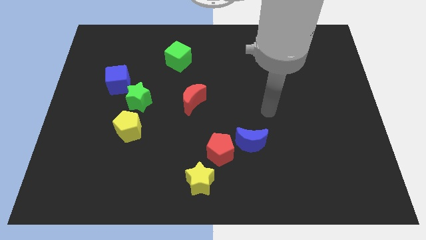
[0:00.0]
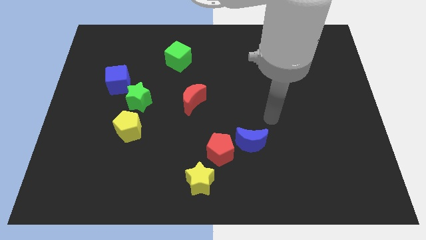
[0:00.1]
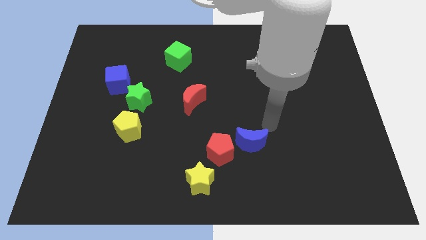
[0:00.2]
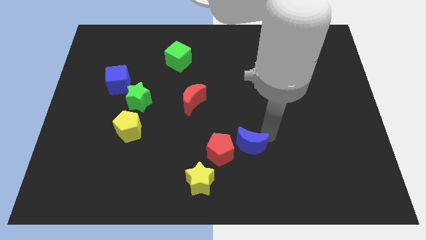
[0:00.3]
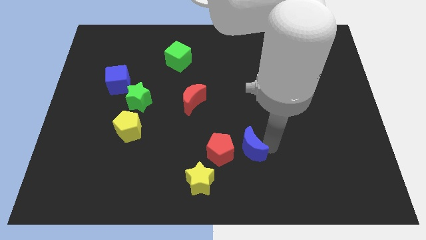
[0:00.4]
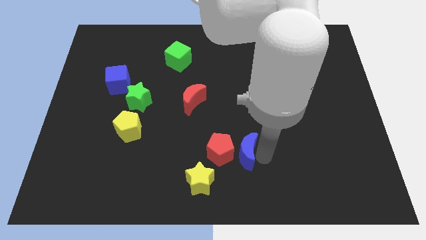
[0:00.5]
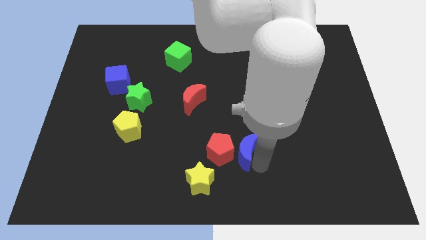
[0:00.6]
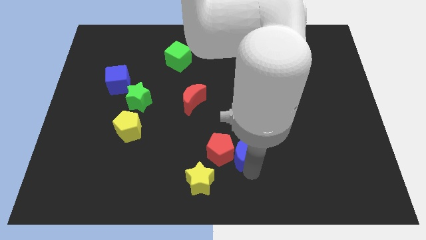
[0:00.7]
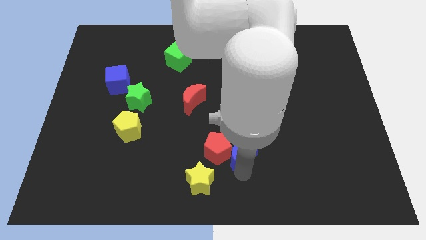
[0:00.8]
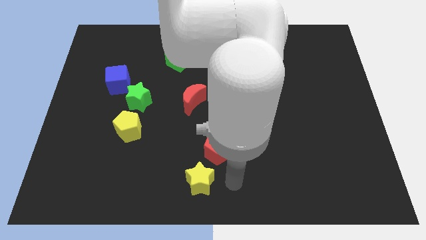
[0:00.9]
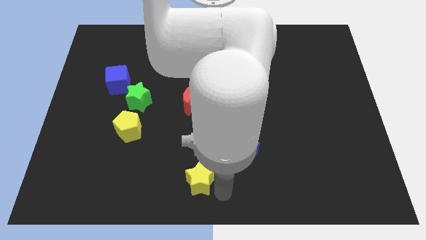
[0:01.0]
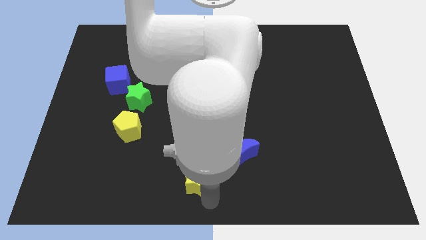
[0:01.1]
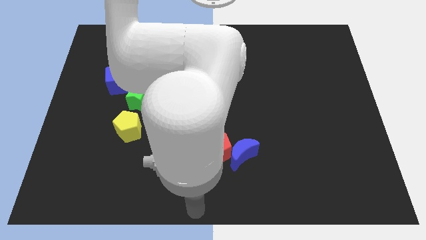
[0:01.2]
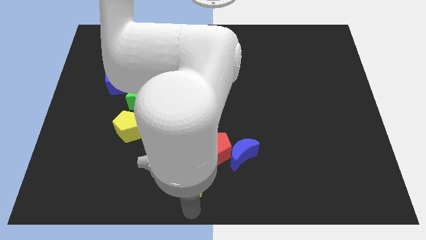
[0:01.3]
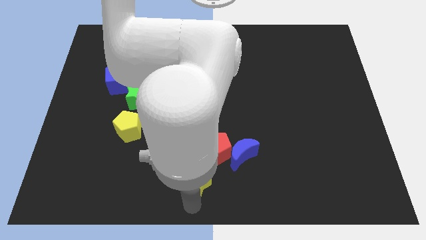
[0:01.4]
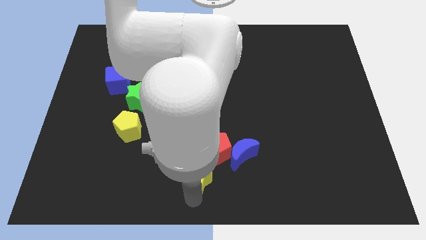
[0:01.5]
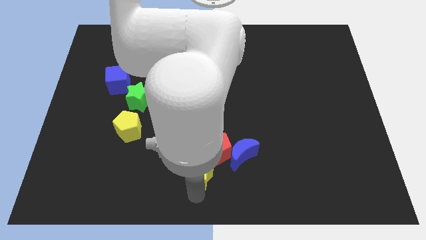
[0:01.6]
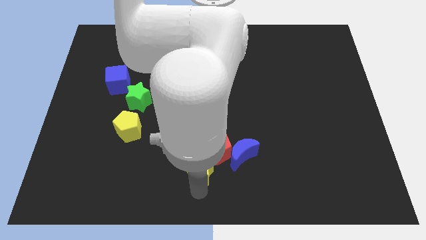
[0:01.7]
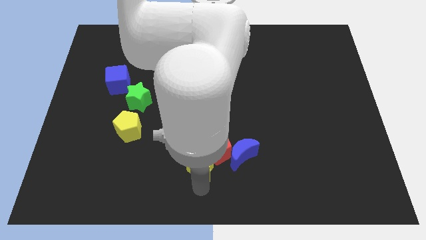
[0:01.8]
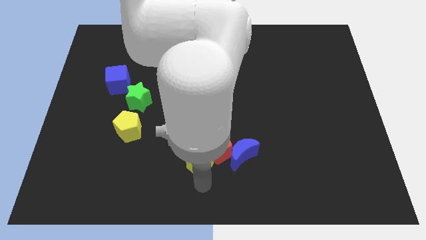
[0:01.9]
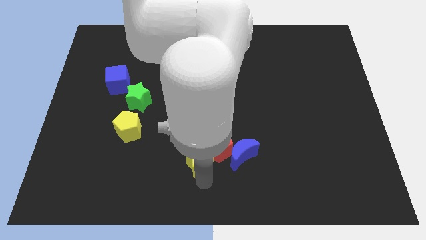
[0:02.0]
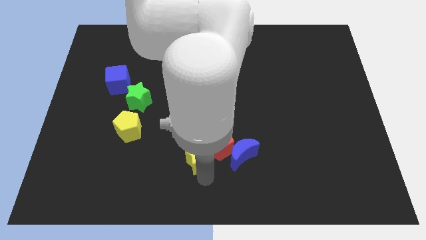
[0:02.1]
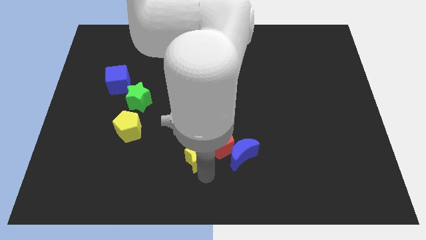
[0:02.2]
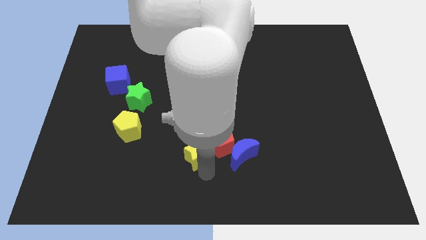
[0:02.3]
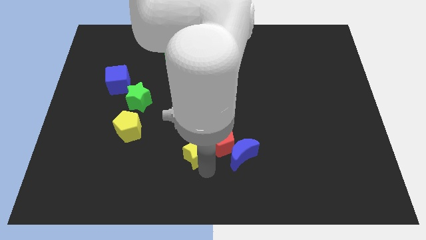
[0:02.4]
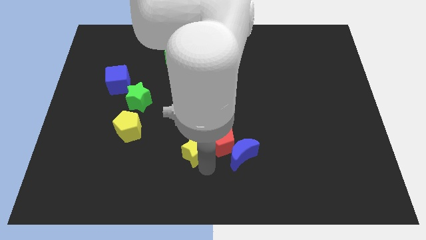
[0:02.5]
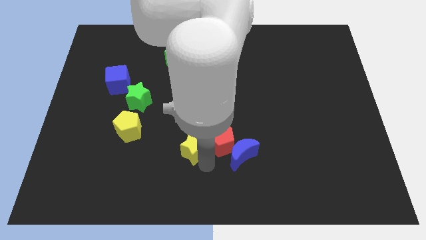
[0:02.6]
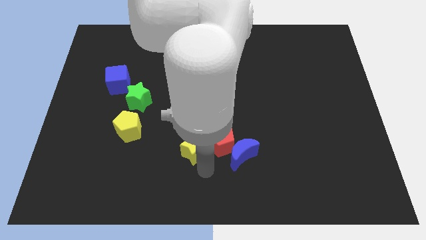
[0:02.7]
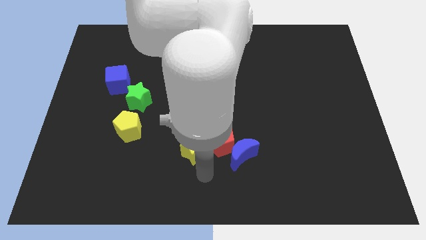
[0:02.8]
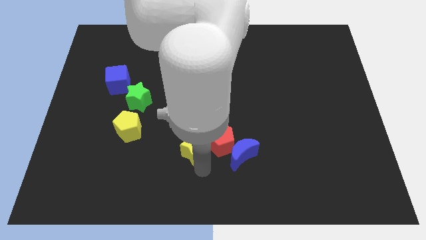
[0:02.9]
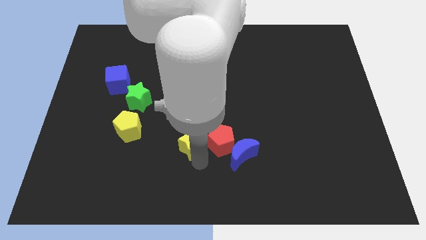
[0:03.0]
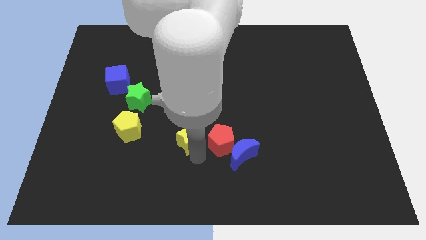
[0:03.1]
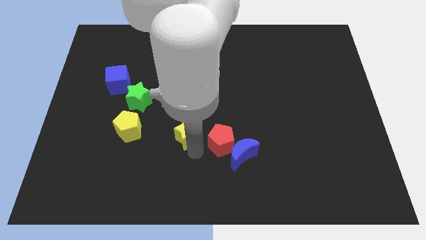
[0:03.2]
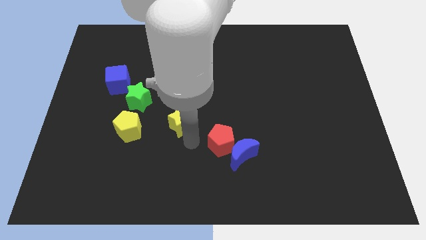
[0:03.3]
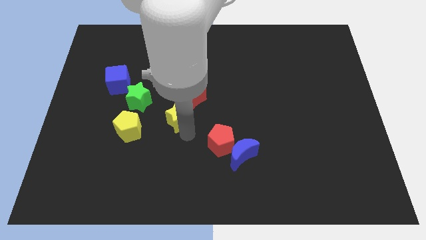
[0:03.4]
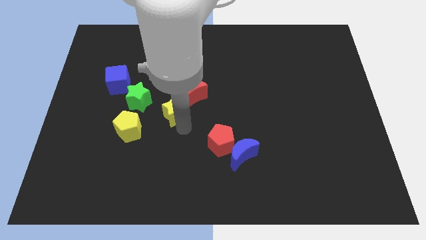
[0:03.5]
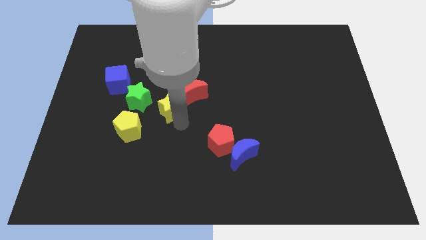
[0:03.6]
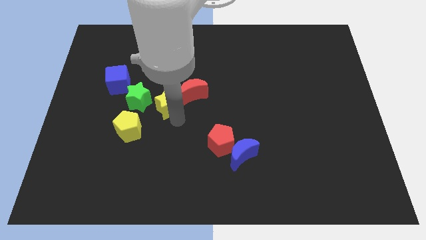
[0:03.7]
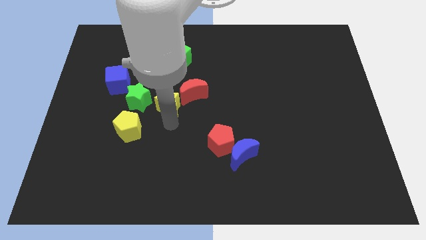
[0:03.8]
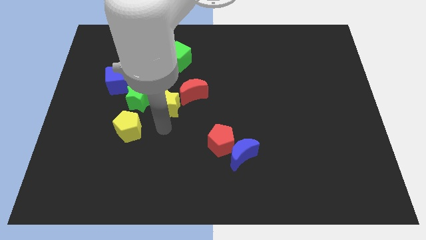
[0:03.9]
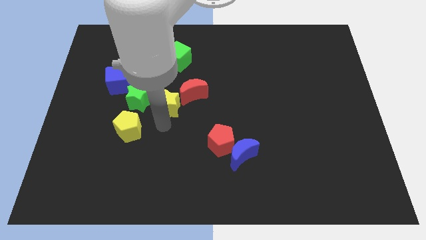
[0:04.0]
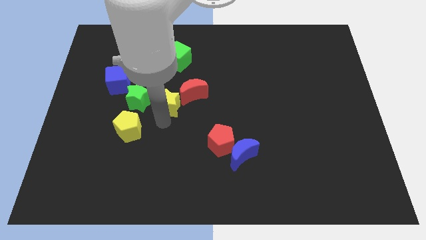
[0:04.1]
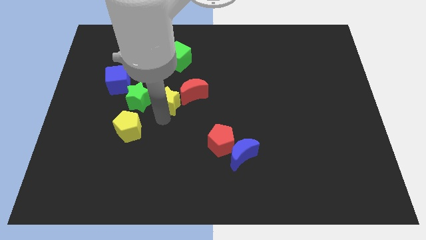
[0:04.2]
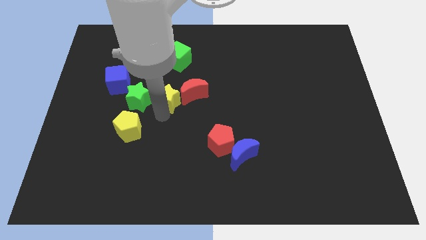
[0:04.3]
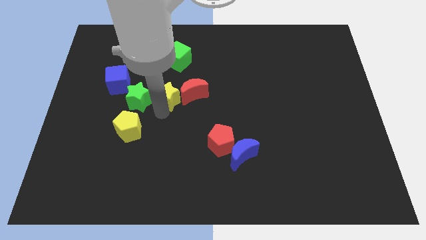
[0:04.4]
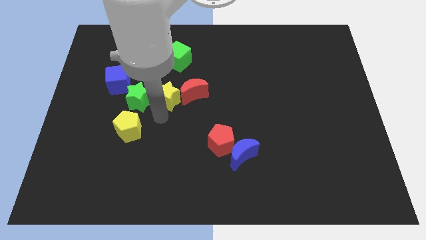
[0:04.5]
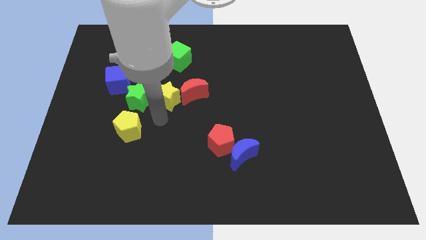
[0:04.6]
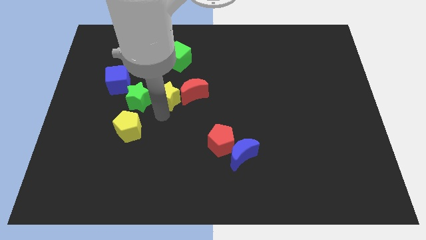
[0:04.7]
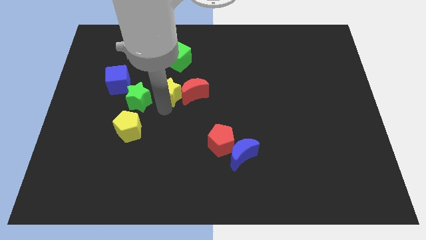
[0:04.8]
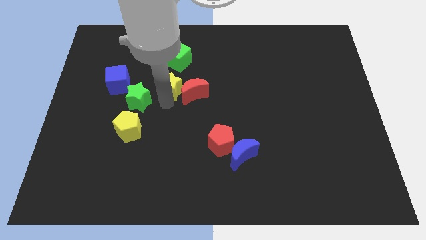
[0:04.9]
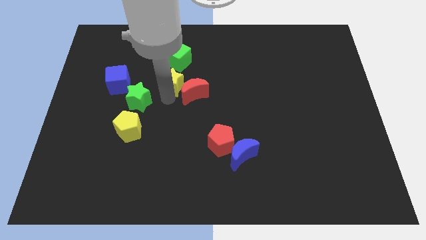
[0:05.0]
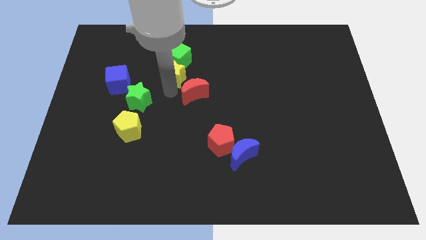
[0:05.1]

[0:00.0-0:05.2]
put the yellow star to the green cube

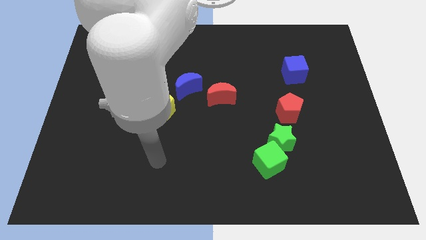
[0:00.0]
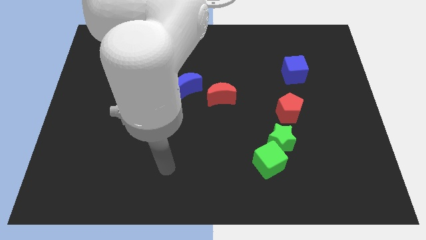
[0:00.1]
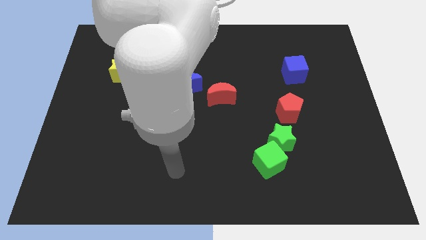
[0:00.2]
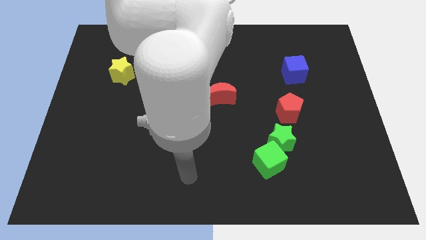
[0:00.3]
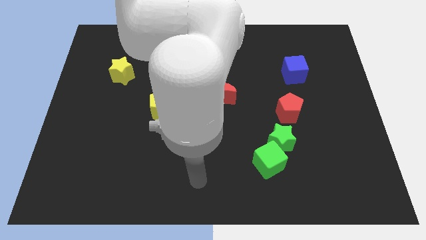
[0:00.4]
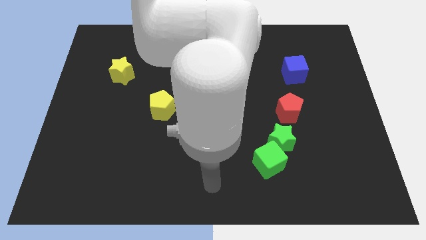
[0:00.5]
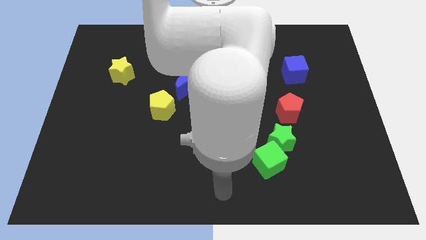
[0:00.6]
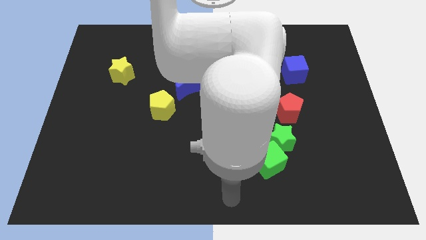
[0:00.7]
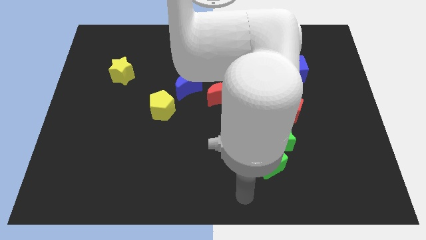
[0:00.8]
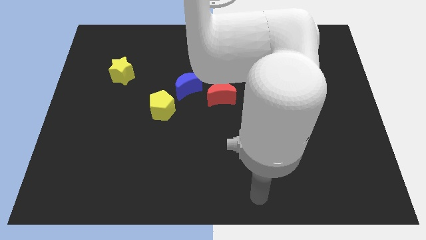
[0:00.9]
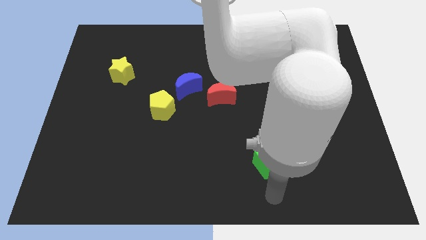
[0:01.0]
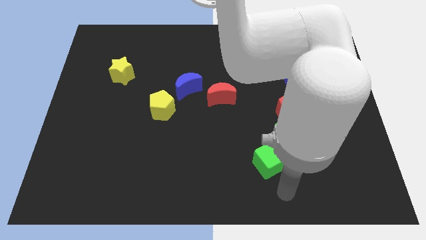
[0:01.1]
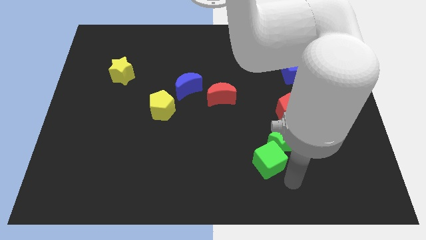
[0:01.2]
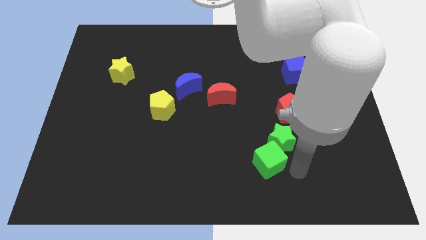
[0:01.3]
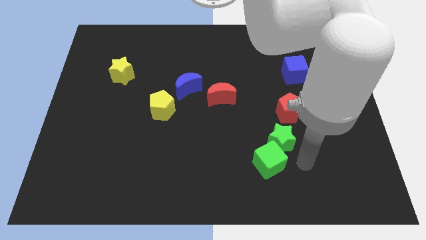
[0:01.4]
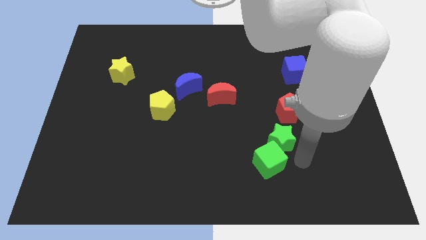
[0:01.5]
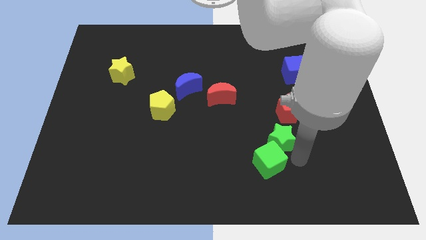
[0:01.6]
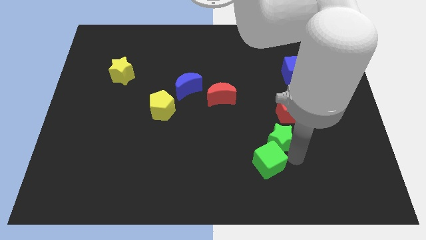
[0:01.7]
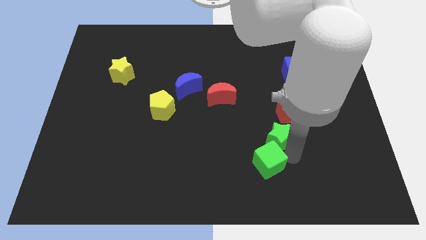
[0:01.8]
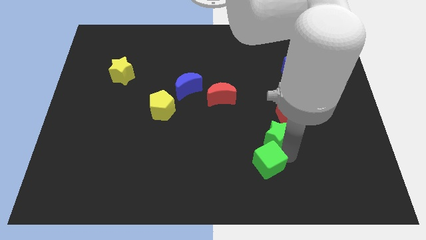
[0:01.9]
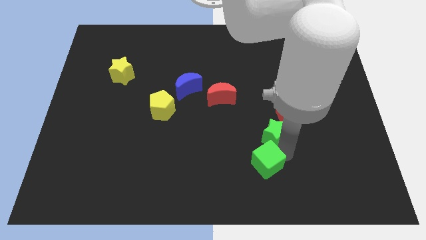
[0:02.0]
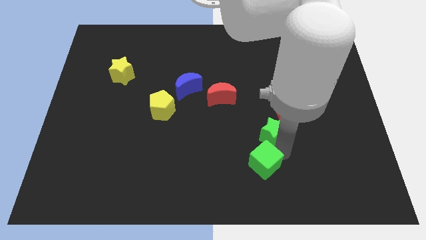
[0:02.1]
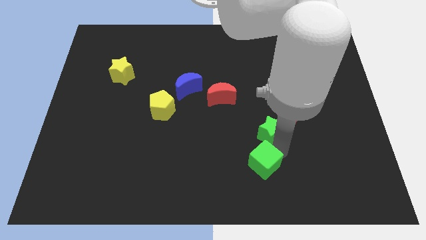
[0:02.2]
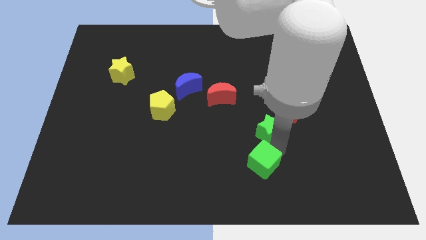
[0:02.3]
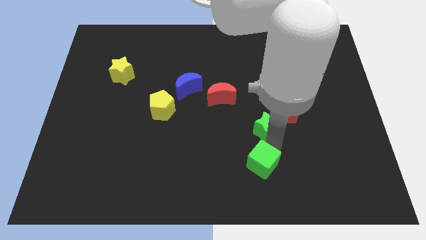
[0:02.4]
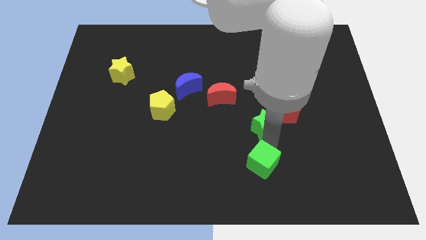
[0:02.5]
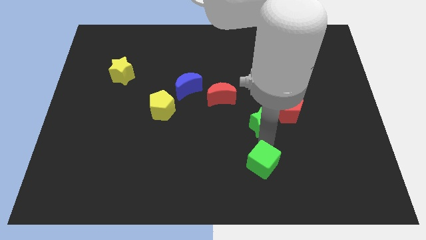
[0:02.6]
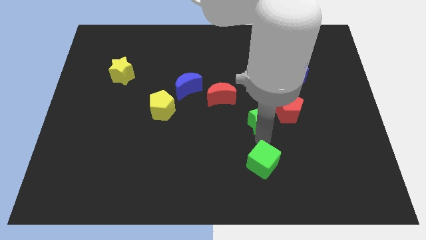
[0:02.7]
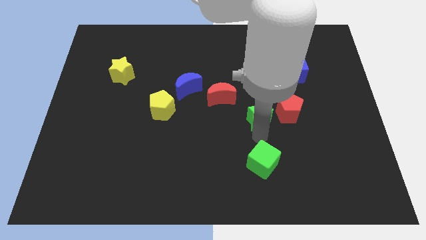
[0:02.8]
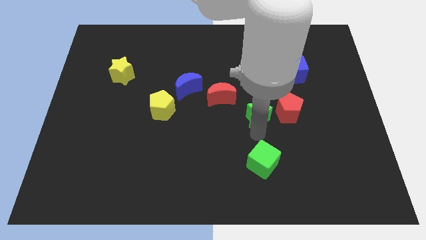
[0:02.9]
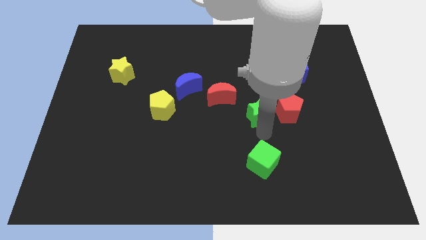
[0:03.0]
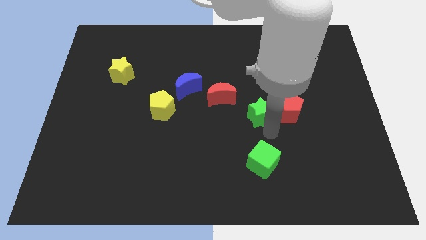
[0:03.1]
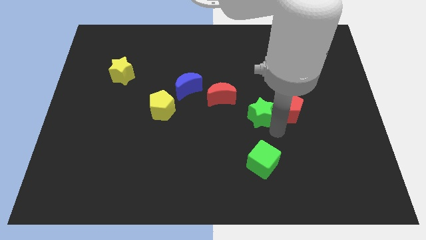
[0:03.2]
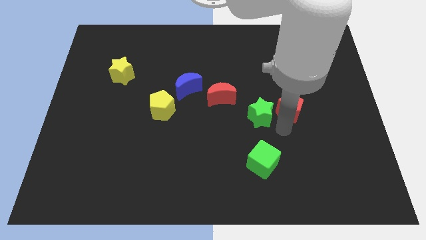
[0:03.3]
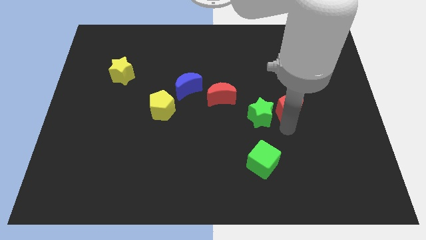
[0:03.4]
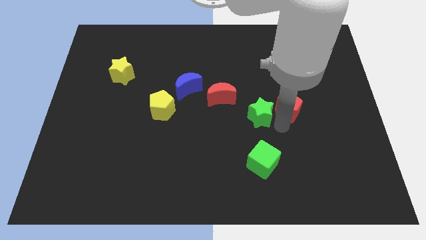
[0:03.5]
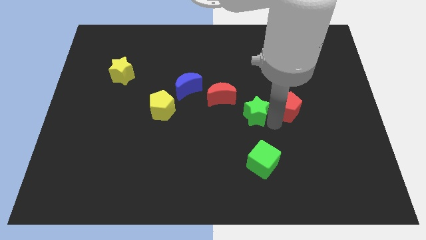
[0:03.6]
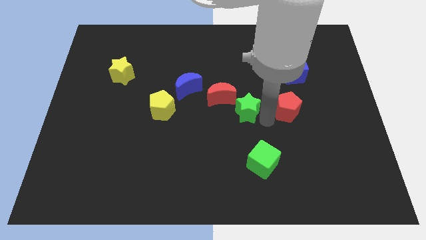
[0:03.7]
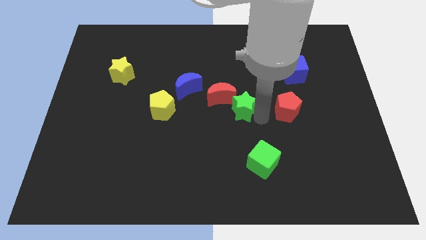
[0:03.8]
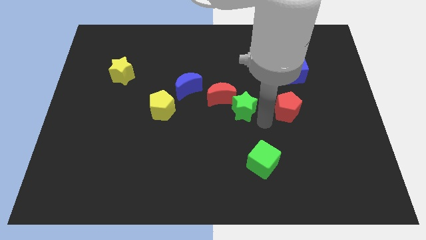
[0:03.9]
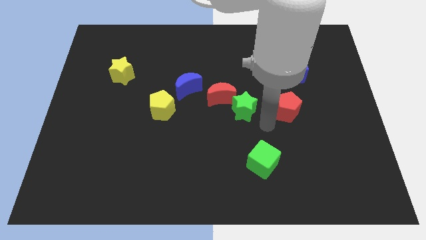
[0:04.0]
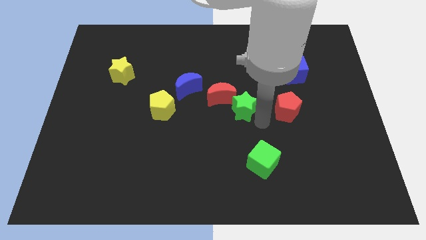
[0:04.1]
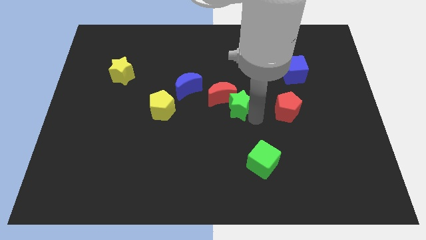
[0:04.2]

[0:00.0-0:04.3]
put the green star to the red moon
